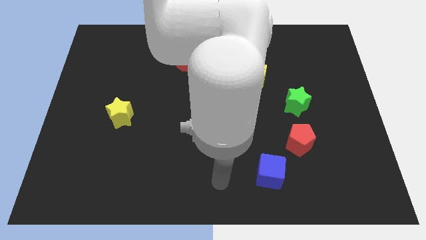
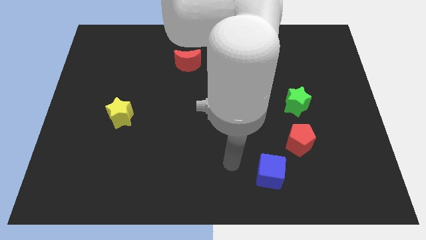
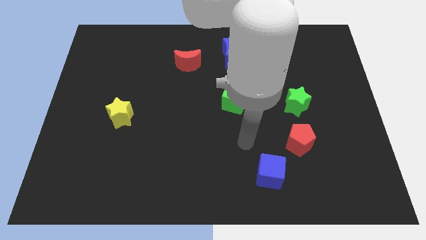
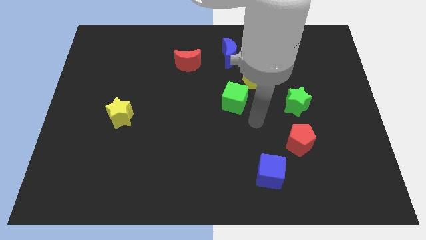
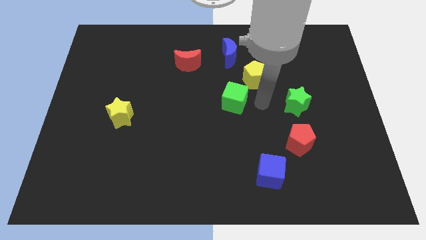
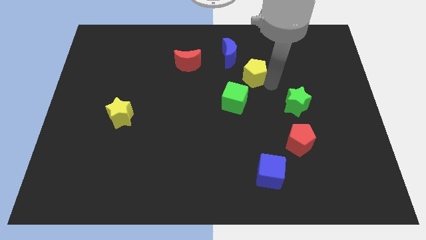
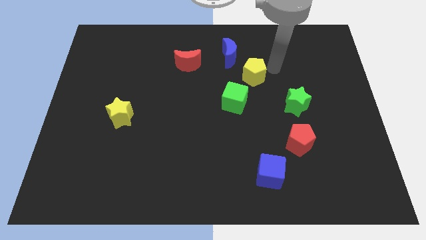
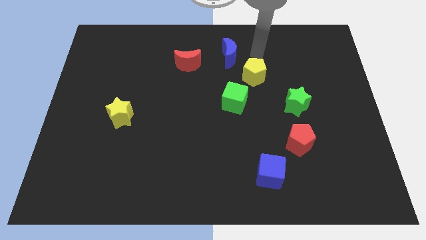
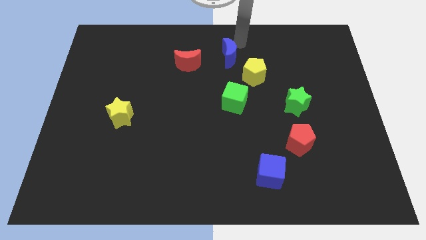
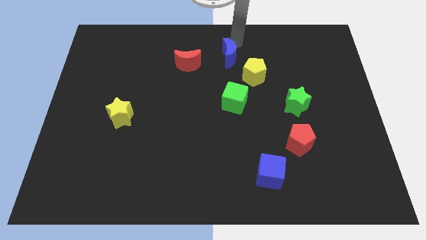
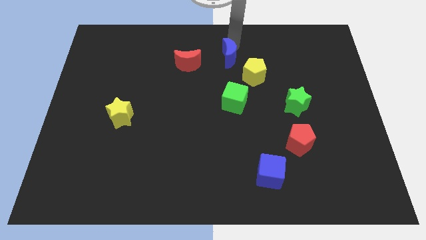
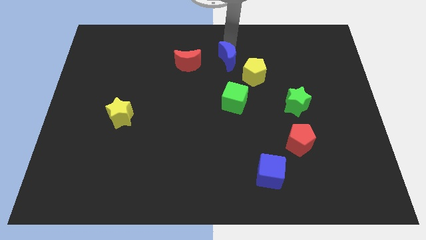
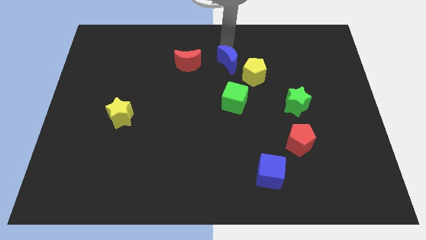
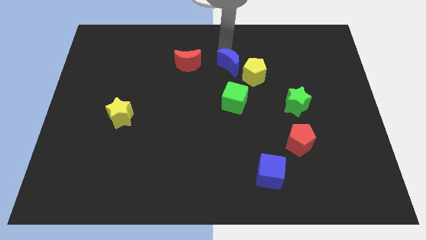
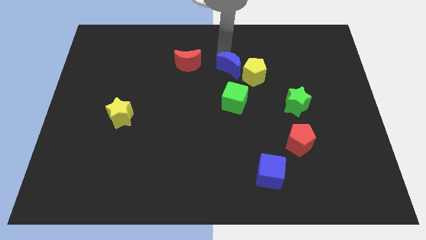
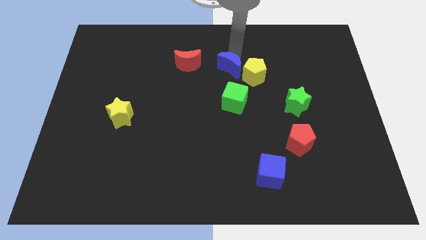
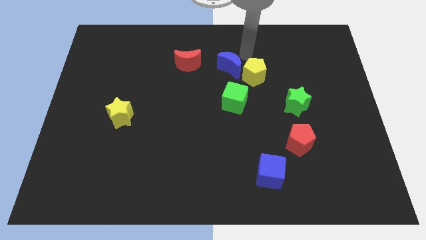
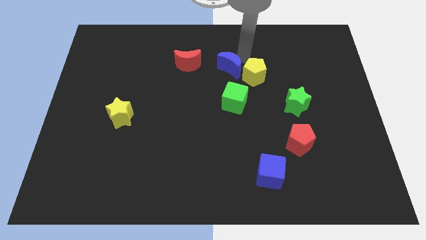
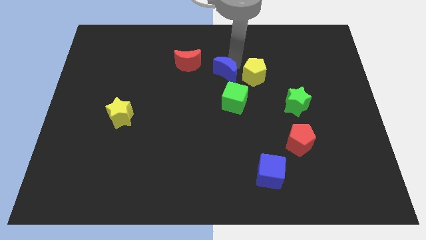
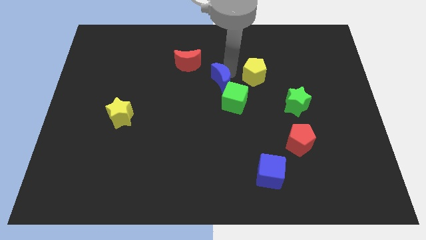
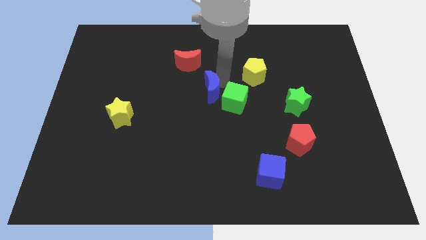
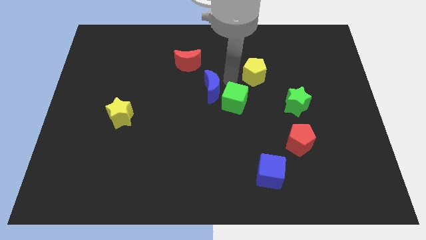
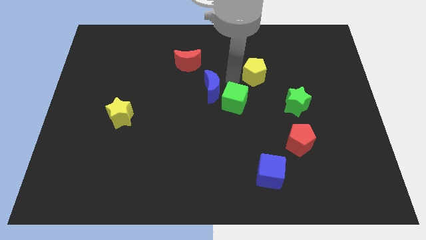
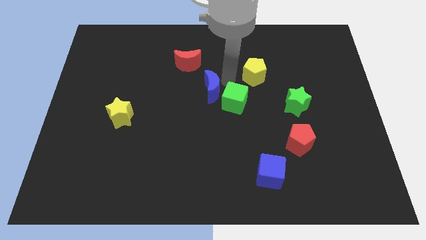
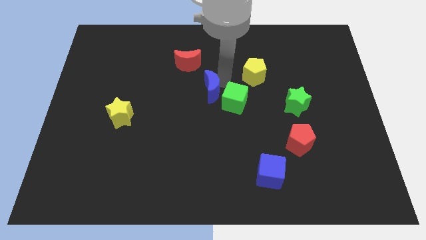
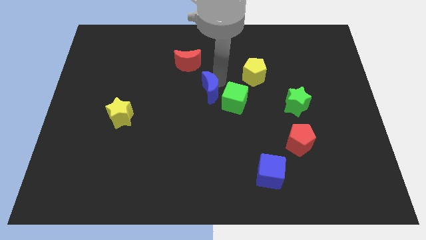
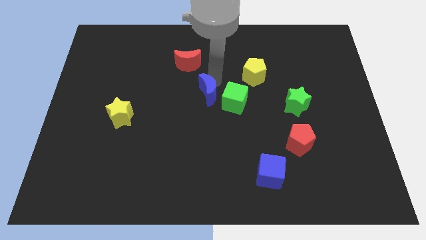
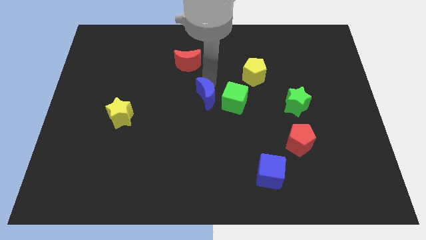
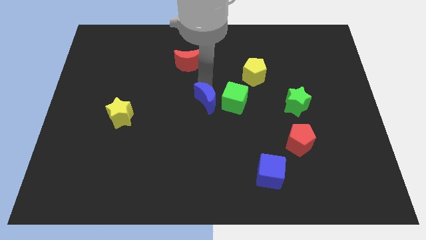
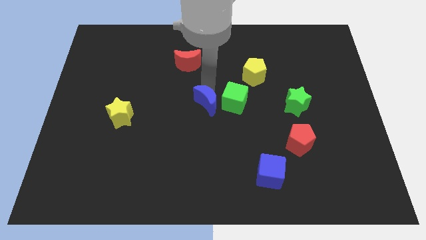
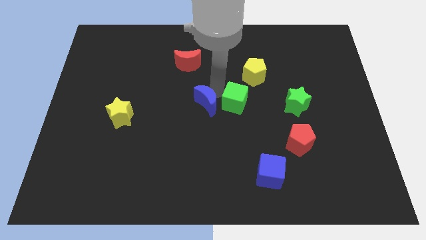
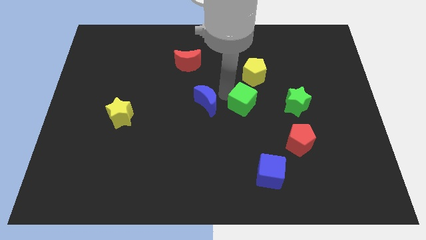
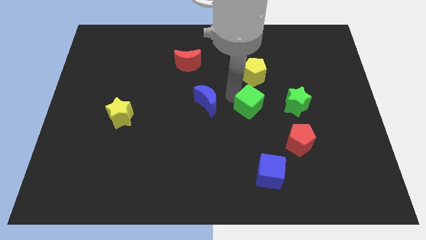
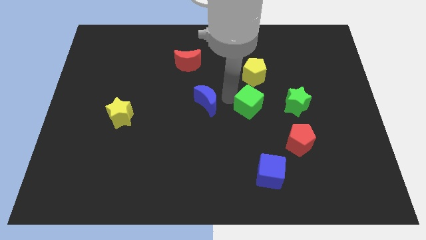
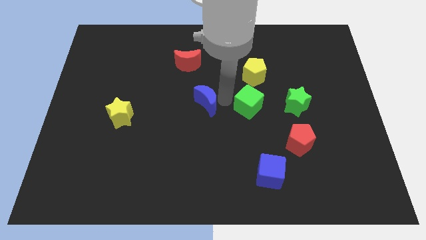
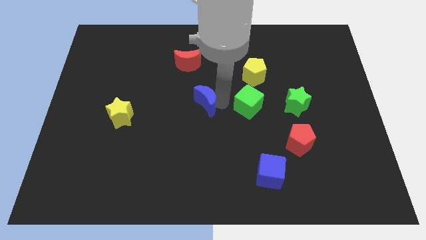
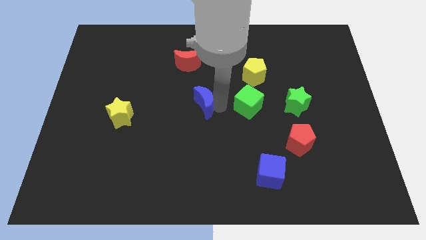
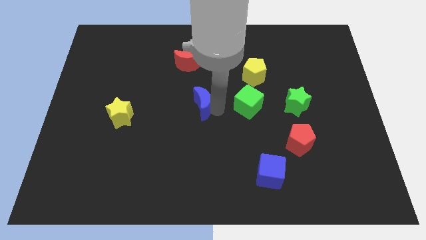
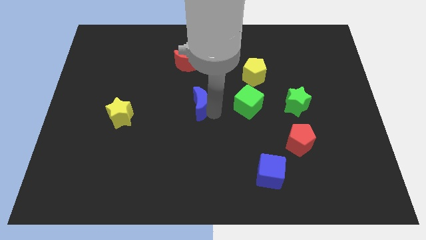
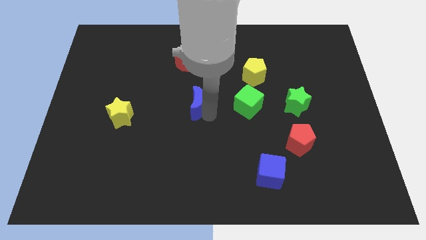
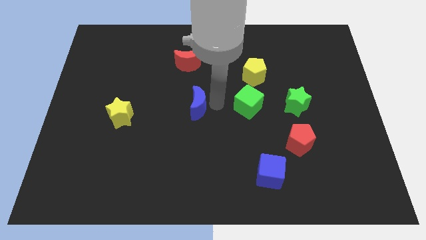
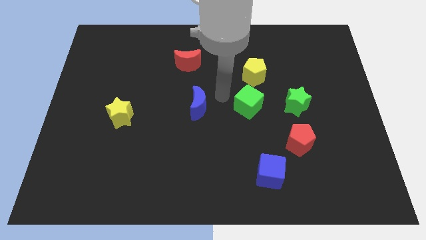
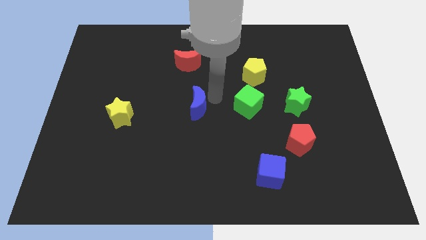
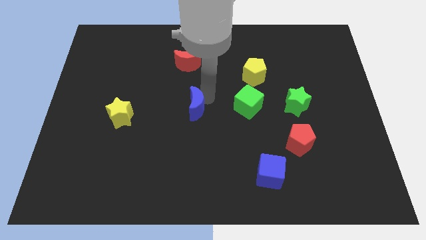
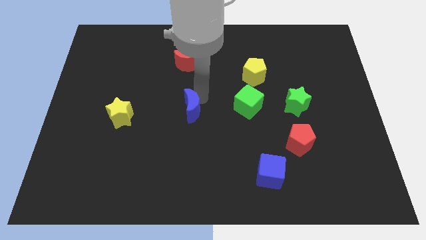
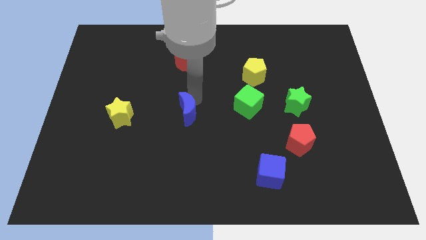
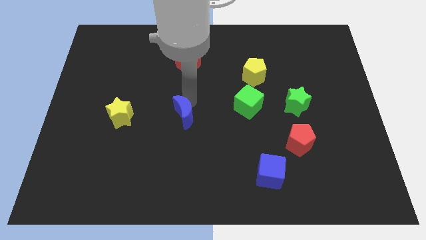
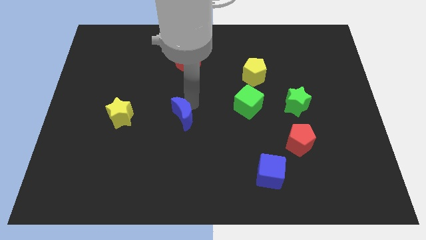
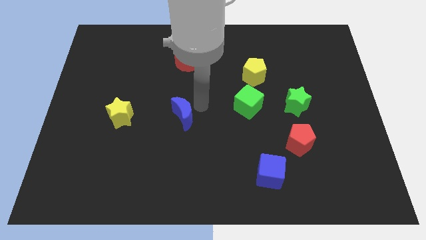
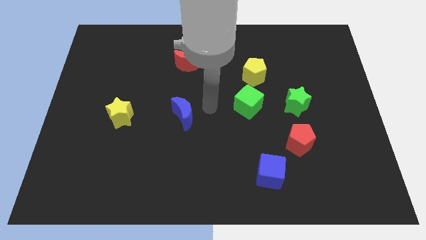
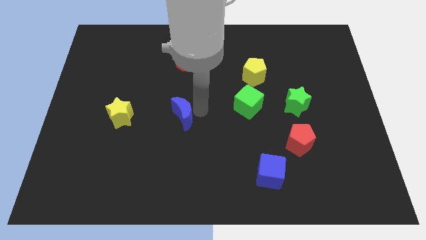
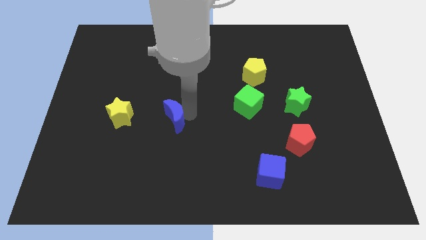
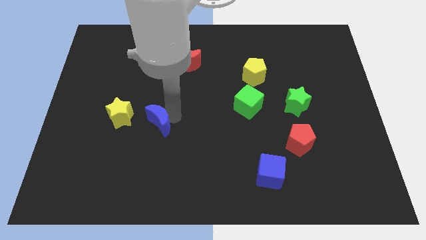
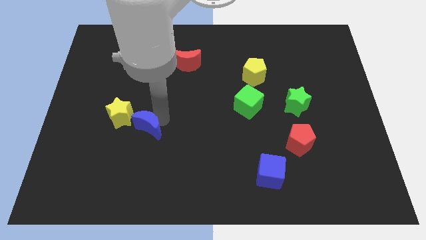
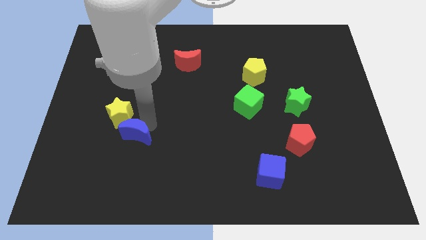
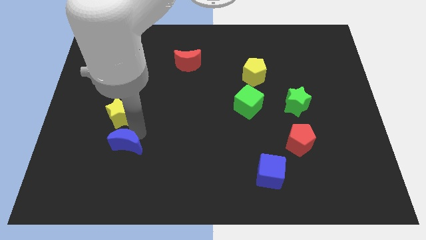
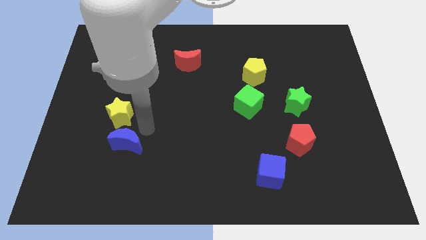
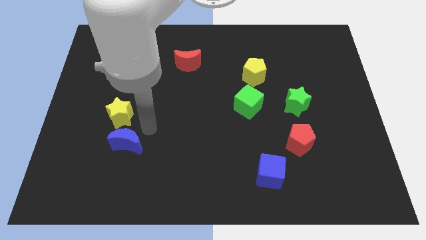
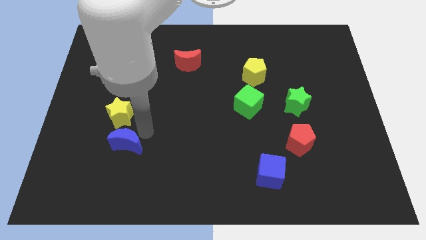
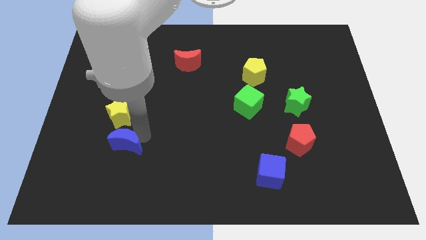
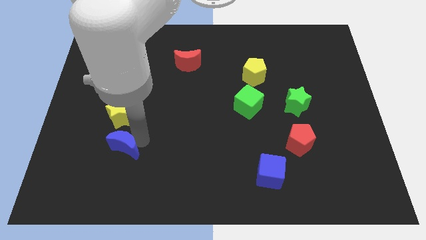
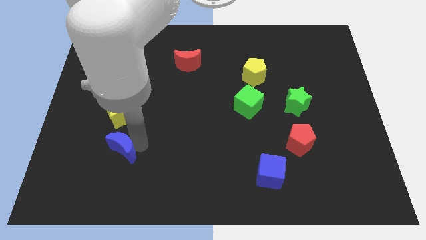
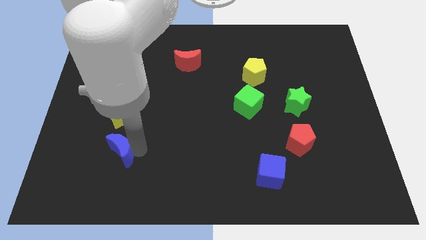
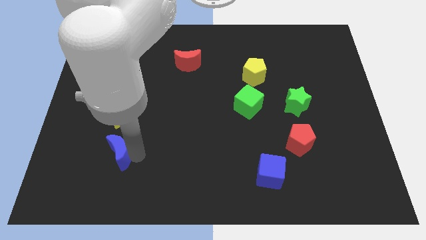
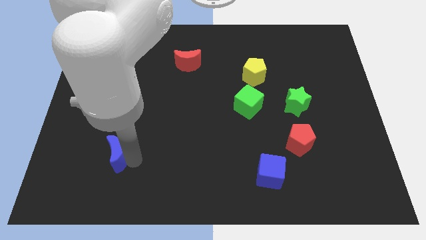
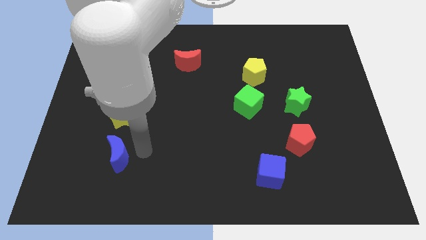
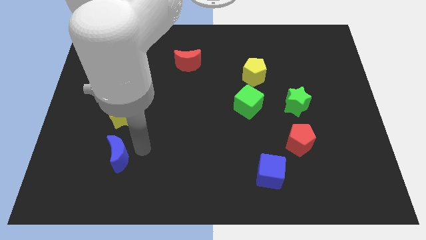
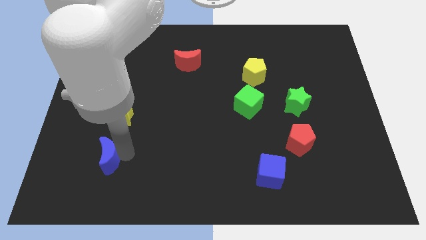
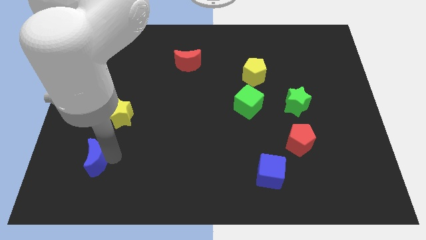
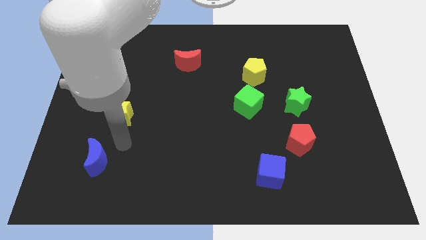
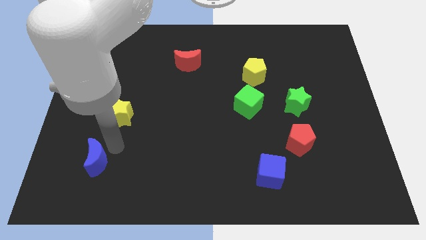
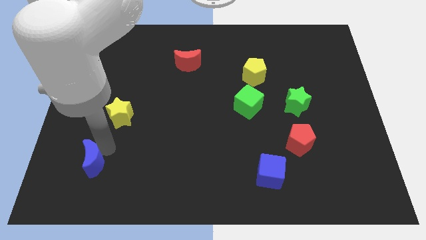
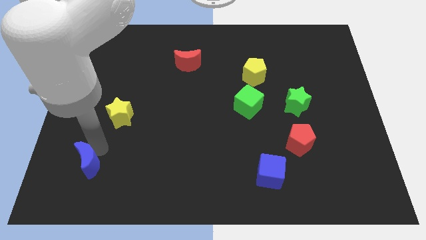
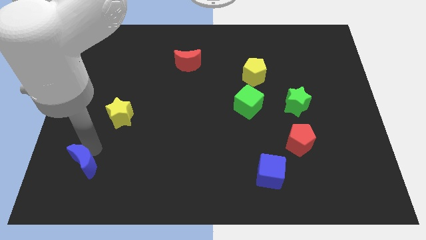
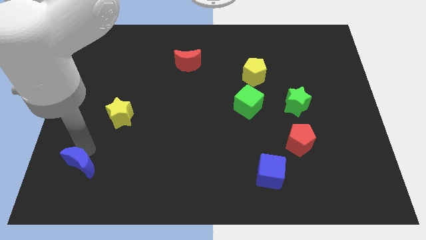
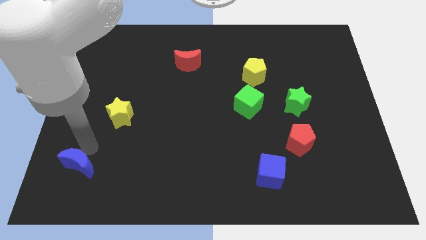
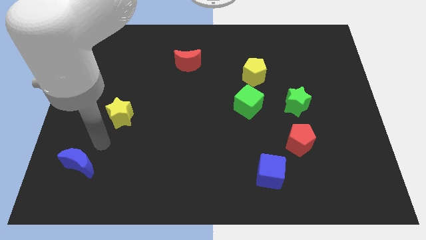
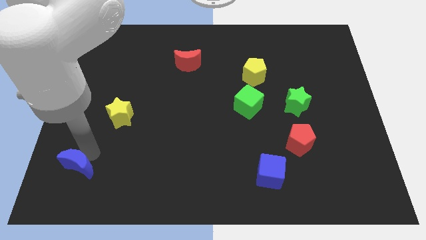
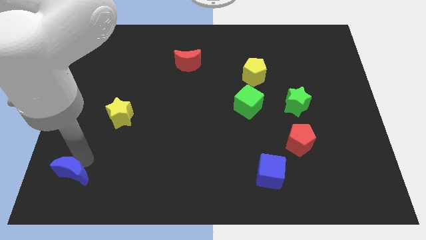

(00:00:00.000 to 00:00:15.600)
push the blue moon to the bottom left
